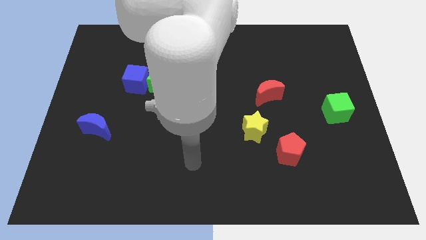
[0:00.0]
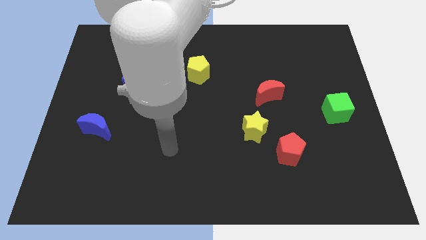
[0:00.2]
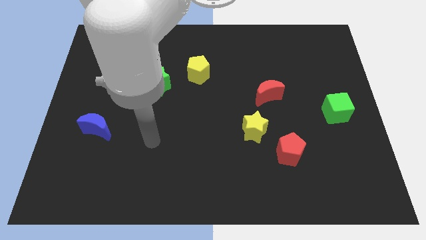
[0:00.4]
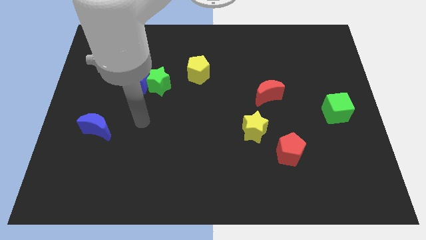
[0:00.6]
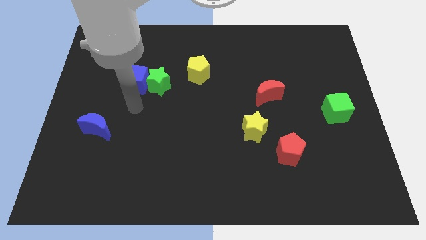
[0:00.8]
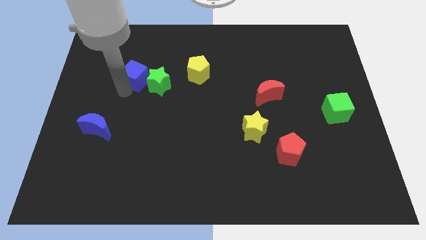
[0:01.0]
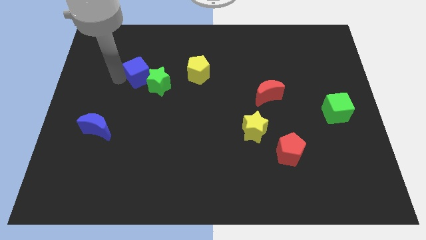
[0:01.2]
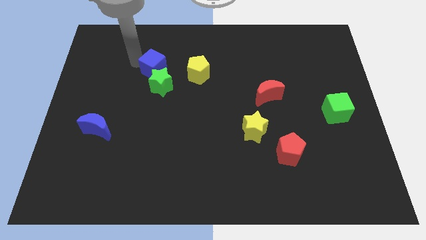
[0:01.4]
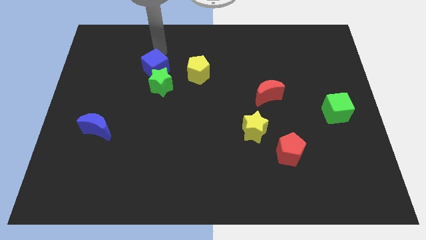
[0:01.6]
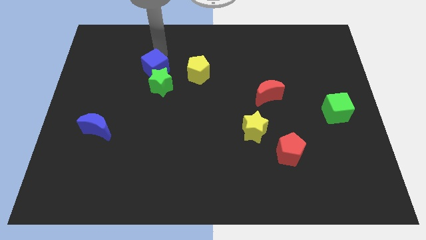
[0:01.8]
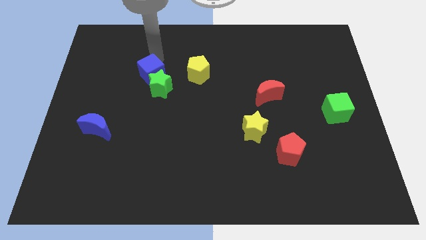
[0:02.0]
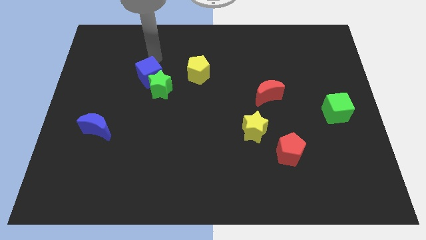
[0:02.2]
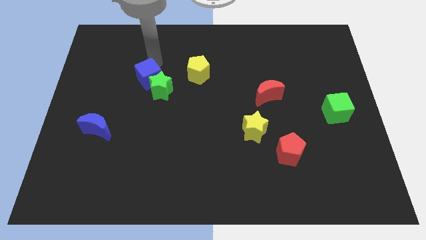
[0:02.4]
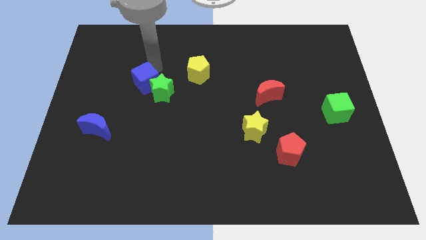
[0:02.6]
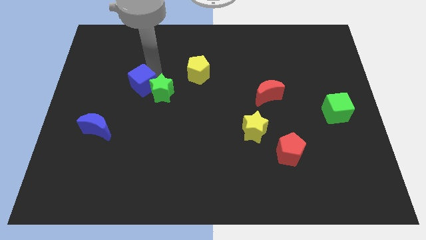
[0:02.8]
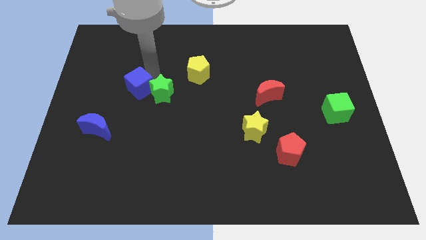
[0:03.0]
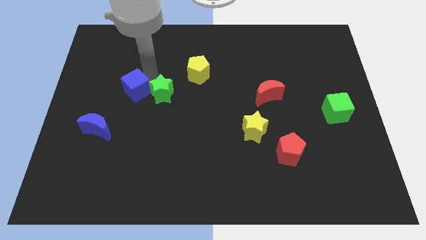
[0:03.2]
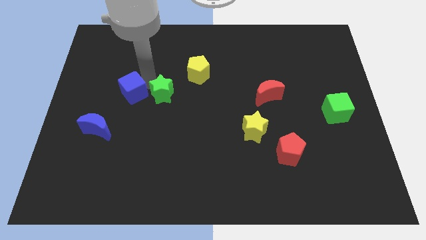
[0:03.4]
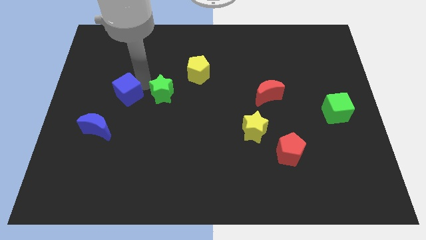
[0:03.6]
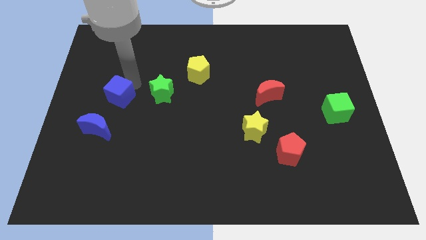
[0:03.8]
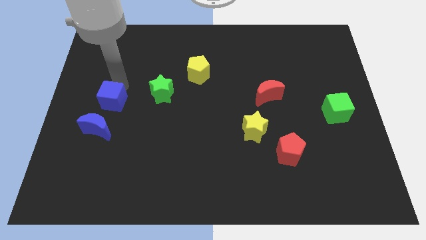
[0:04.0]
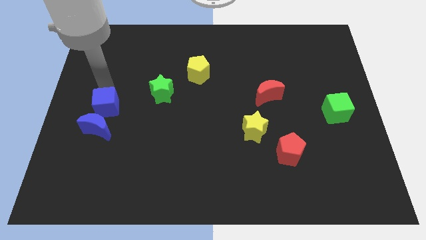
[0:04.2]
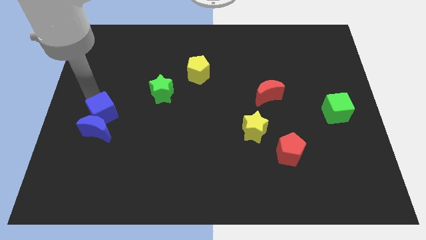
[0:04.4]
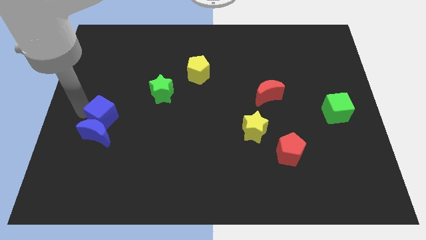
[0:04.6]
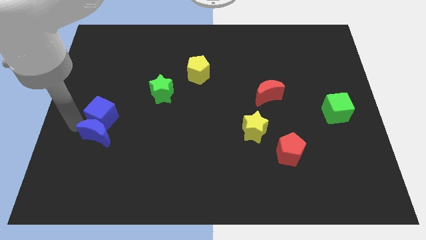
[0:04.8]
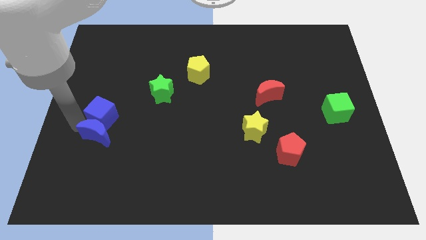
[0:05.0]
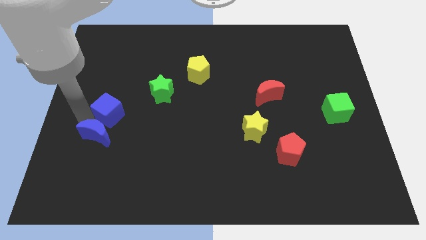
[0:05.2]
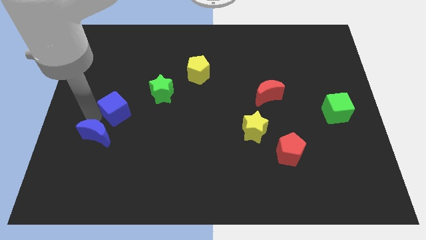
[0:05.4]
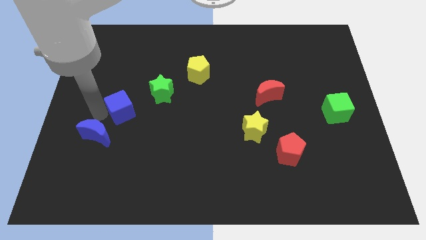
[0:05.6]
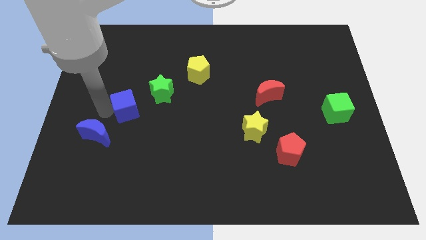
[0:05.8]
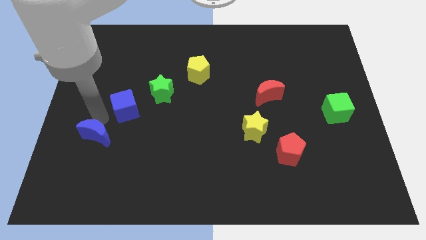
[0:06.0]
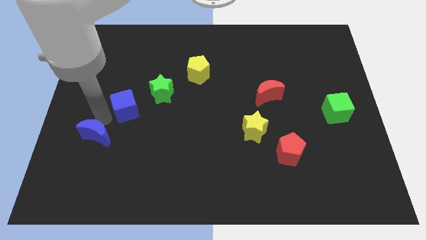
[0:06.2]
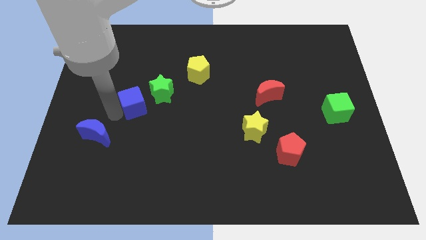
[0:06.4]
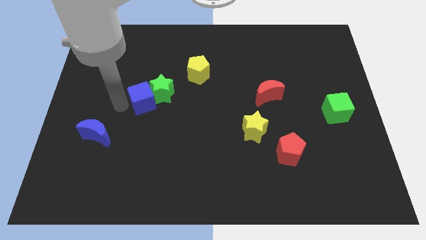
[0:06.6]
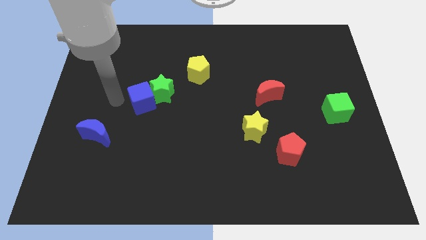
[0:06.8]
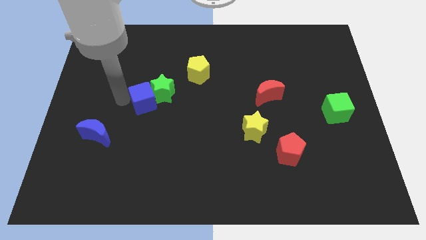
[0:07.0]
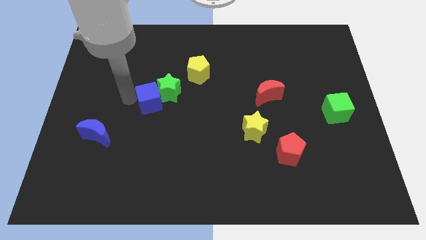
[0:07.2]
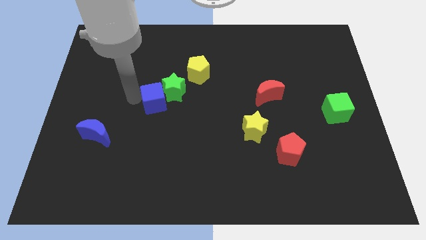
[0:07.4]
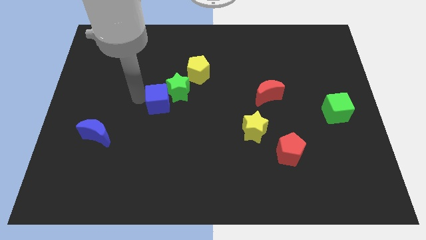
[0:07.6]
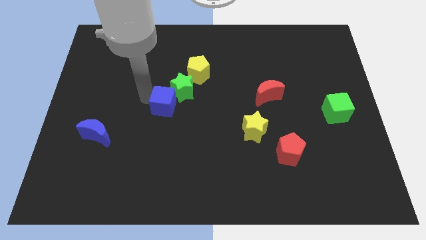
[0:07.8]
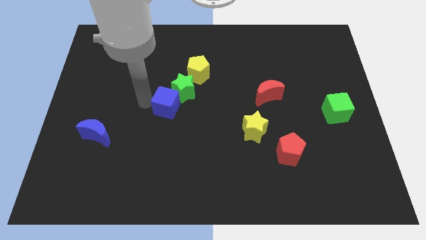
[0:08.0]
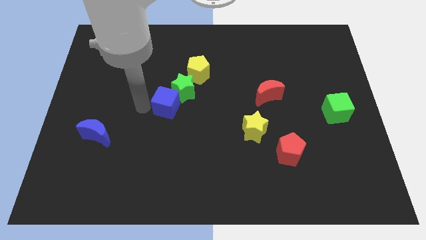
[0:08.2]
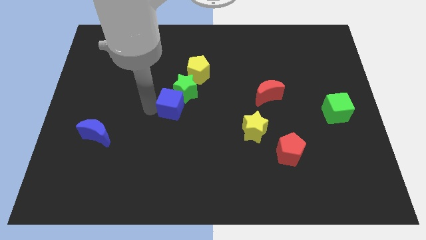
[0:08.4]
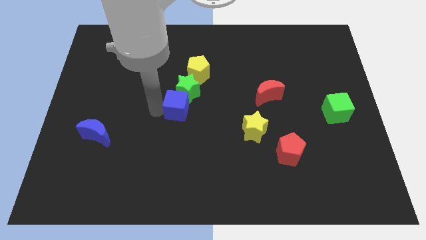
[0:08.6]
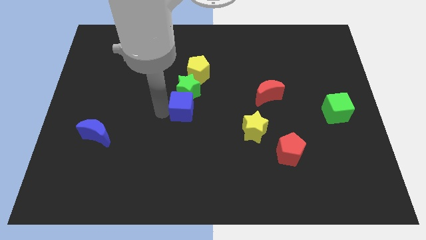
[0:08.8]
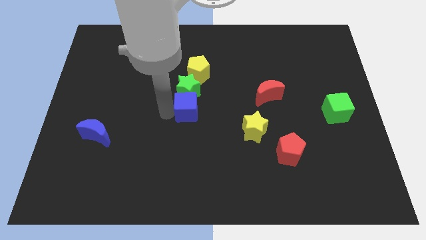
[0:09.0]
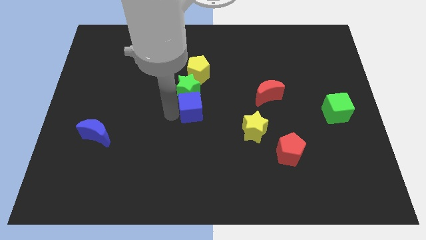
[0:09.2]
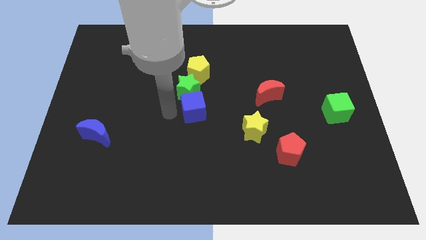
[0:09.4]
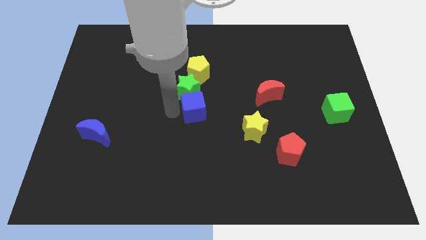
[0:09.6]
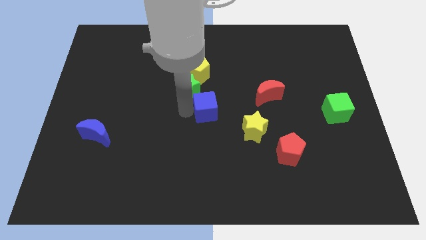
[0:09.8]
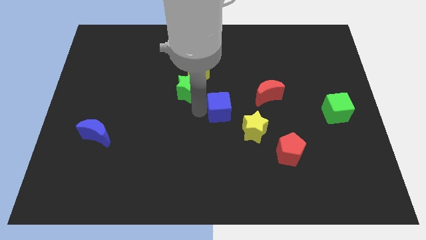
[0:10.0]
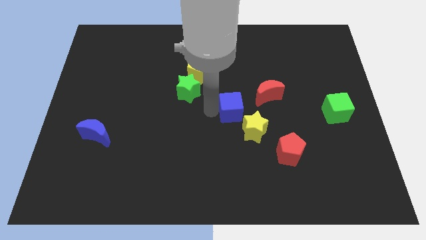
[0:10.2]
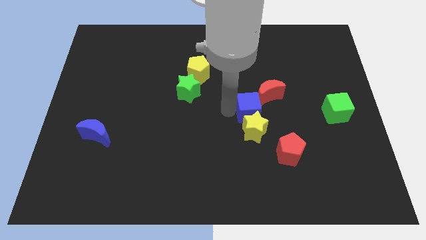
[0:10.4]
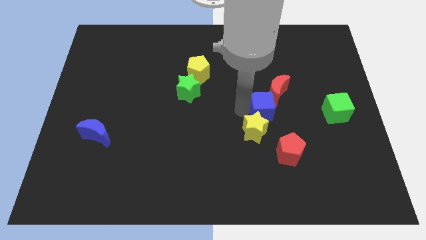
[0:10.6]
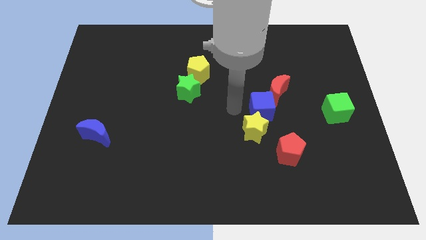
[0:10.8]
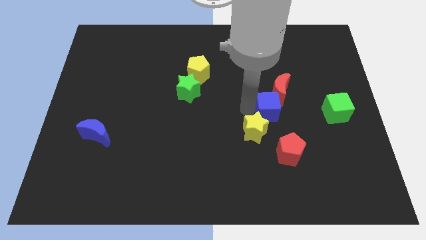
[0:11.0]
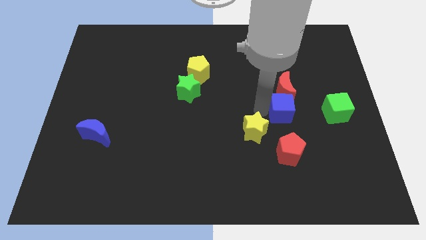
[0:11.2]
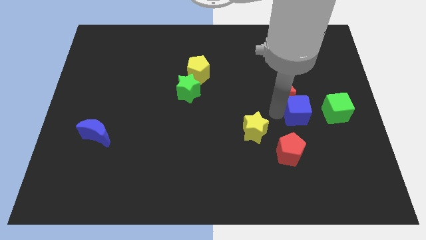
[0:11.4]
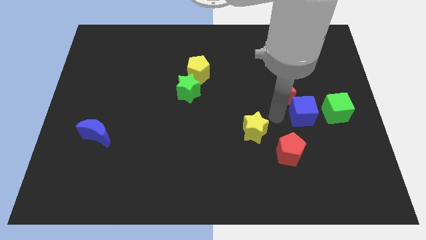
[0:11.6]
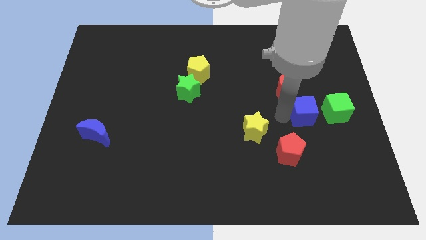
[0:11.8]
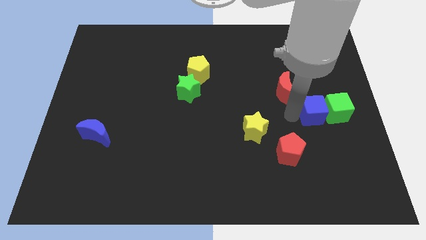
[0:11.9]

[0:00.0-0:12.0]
move the blue cube towards the green cube

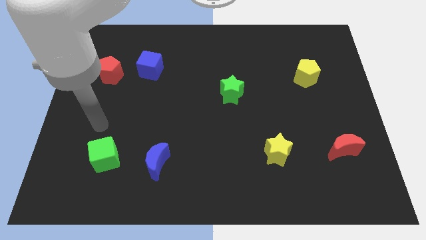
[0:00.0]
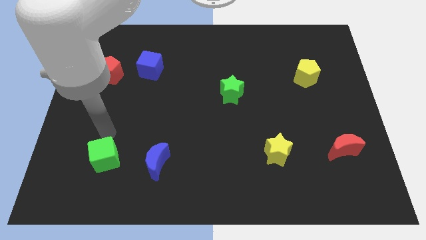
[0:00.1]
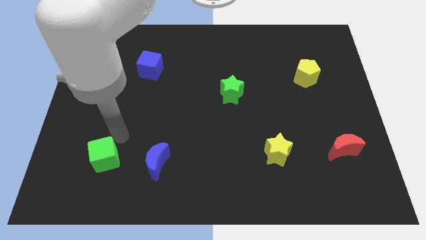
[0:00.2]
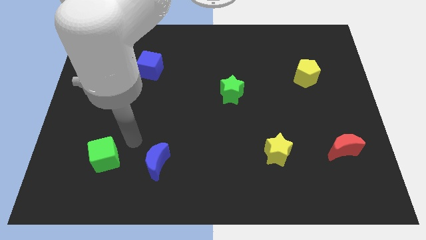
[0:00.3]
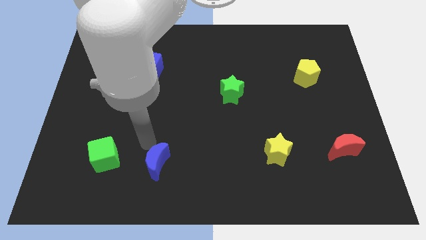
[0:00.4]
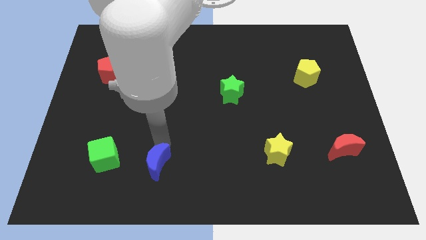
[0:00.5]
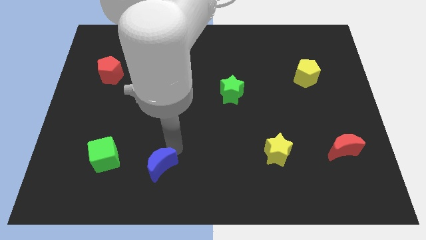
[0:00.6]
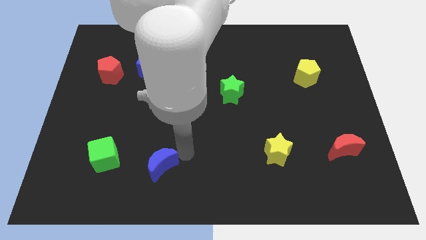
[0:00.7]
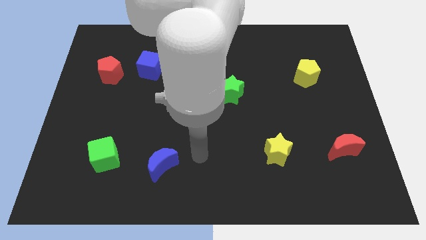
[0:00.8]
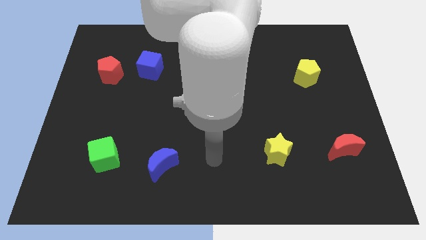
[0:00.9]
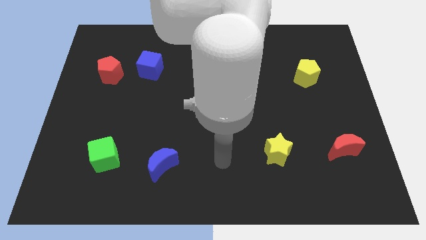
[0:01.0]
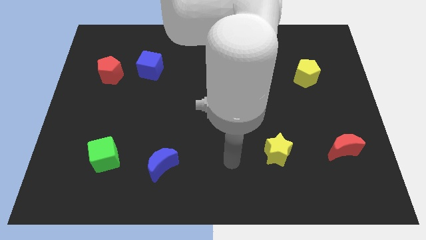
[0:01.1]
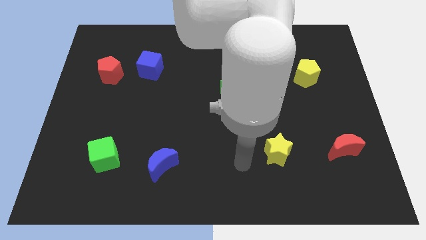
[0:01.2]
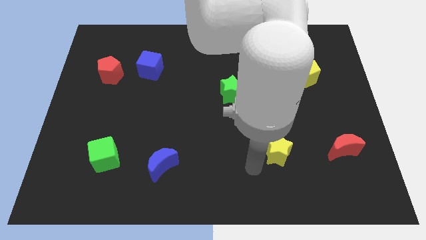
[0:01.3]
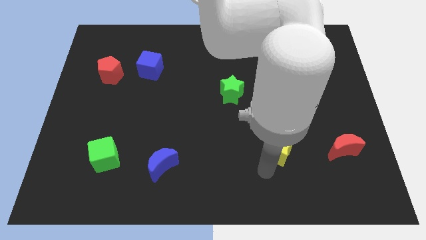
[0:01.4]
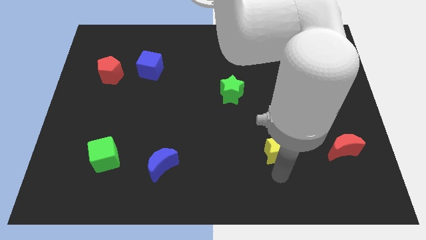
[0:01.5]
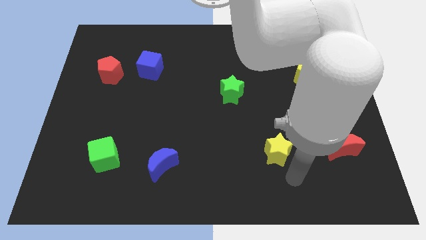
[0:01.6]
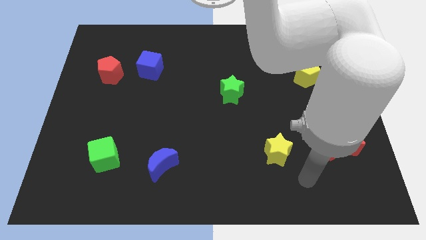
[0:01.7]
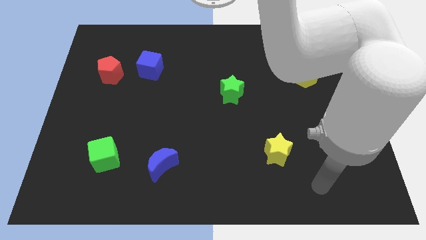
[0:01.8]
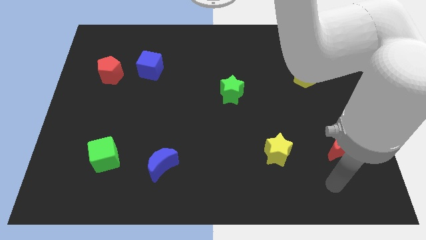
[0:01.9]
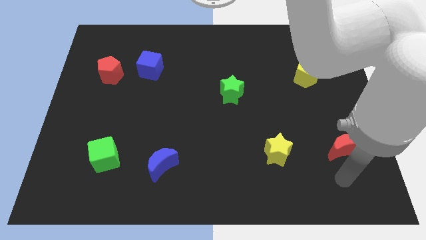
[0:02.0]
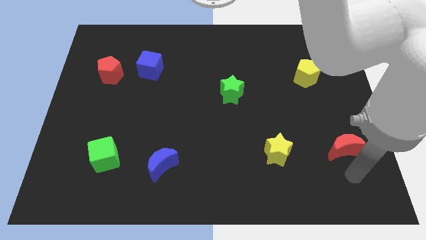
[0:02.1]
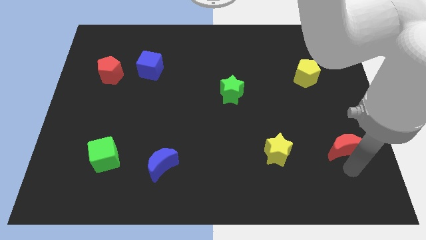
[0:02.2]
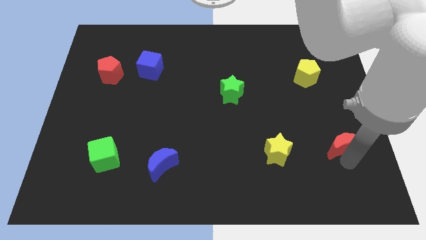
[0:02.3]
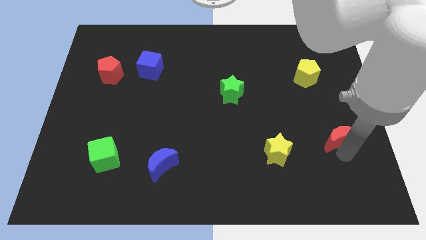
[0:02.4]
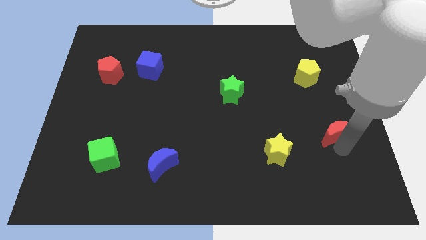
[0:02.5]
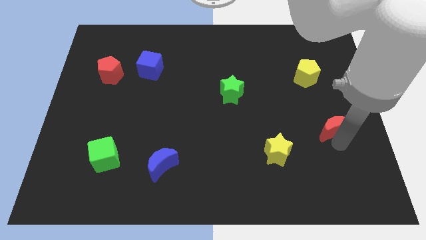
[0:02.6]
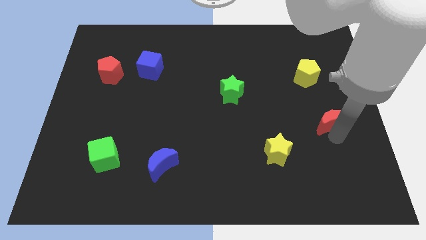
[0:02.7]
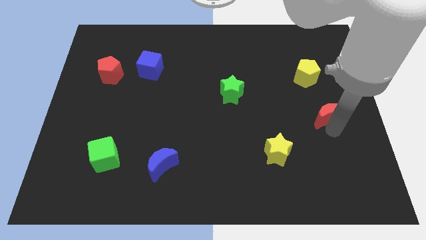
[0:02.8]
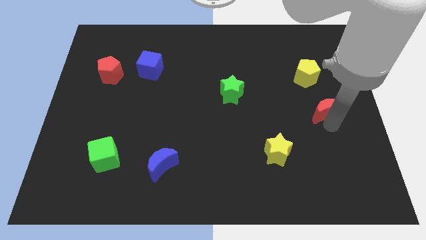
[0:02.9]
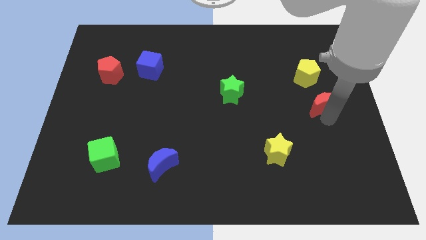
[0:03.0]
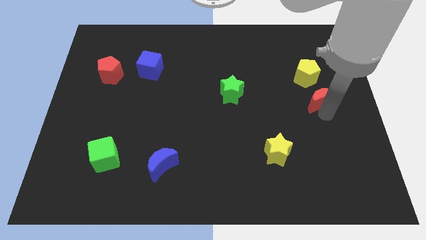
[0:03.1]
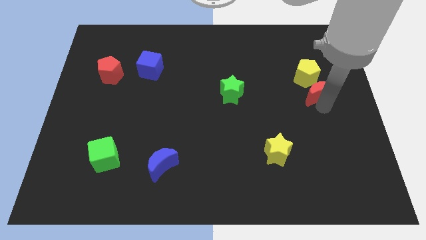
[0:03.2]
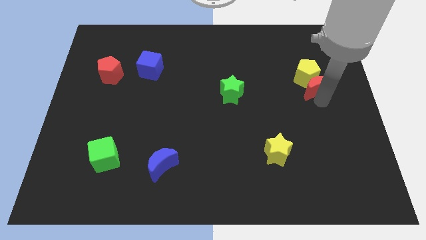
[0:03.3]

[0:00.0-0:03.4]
slide the red moon next to the yellow pentagon
